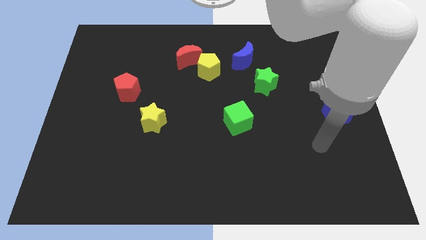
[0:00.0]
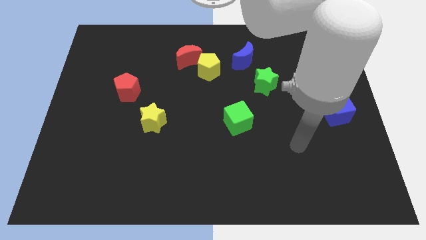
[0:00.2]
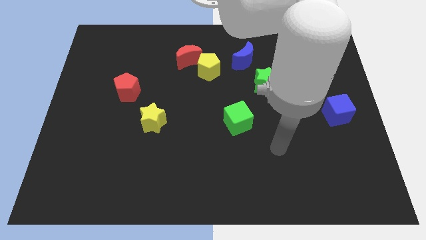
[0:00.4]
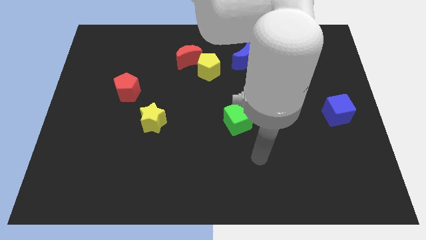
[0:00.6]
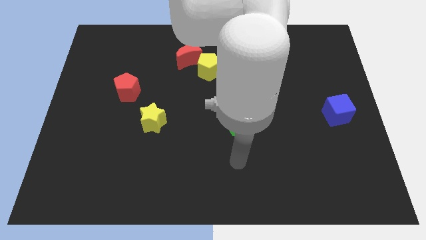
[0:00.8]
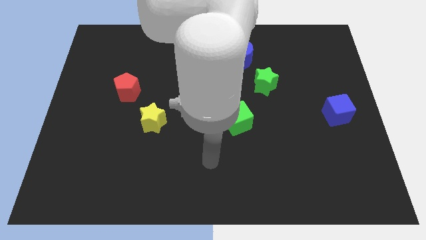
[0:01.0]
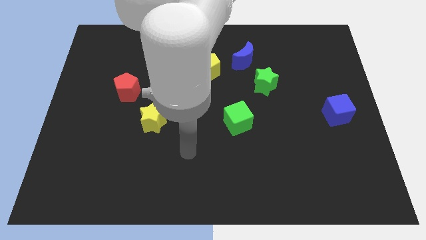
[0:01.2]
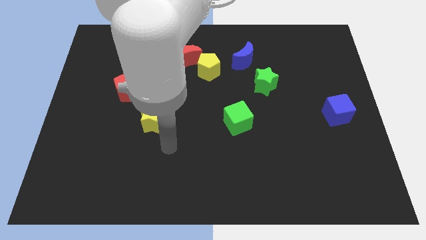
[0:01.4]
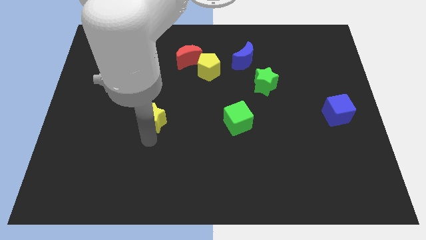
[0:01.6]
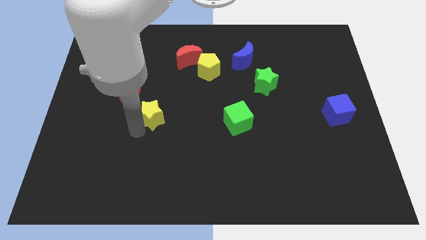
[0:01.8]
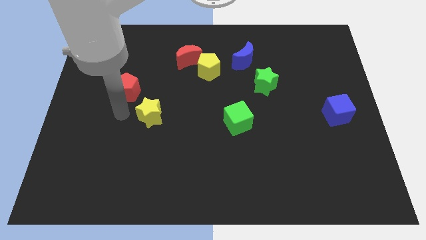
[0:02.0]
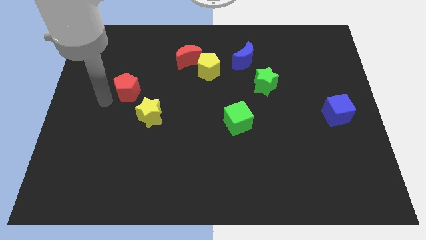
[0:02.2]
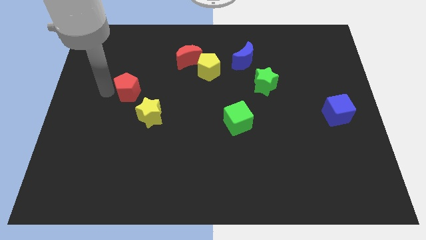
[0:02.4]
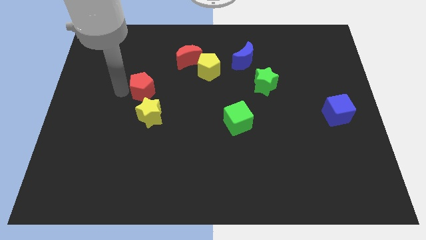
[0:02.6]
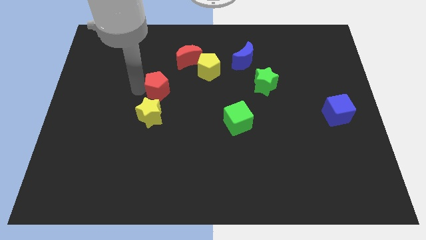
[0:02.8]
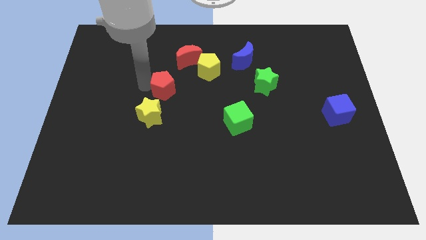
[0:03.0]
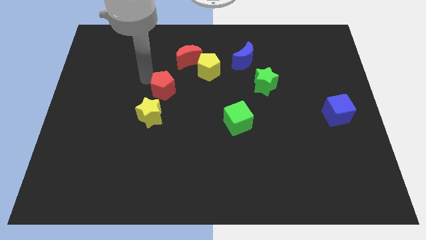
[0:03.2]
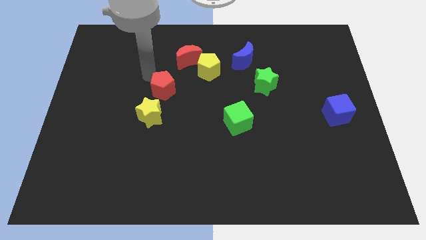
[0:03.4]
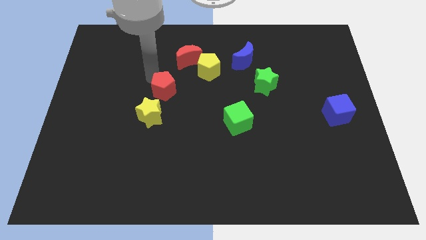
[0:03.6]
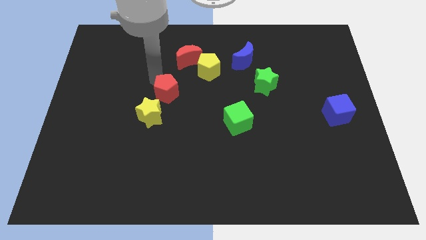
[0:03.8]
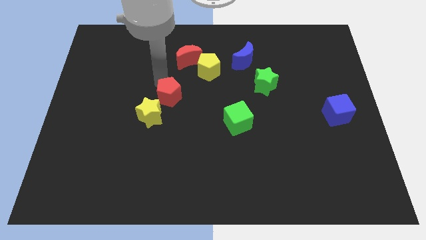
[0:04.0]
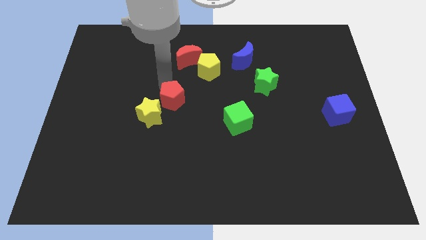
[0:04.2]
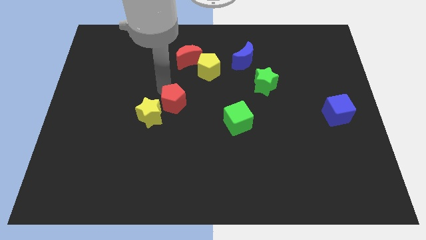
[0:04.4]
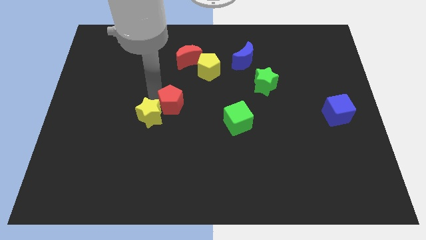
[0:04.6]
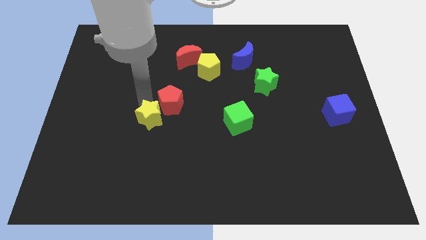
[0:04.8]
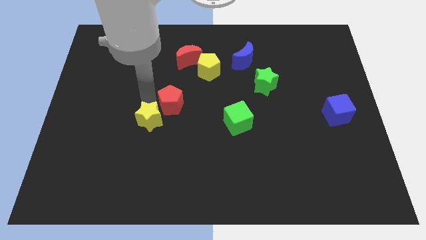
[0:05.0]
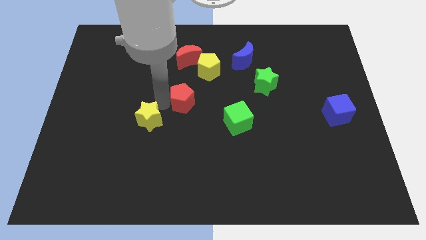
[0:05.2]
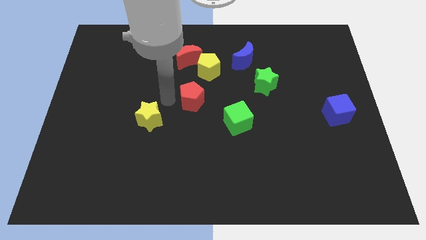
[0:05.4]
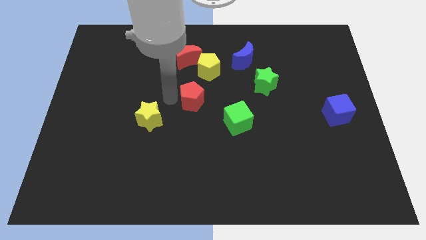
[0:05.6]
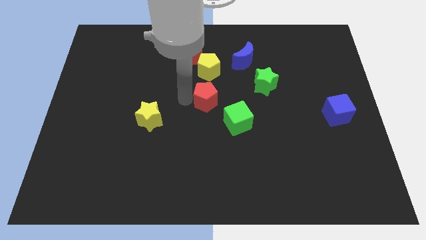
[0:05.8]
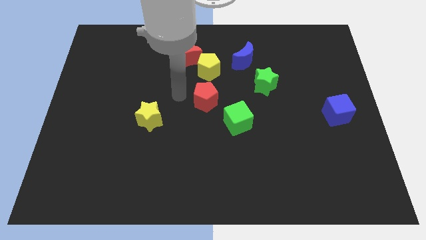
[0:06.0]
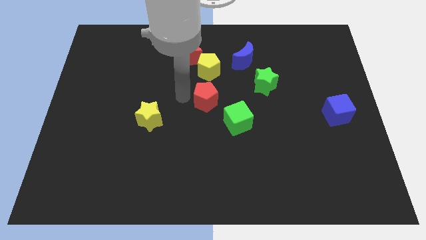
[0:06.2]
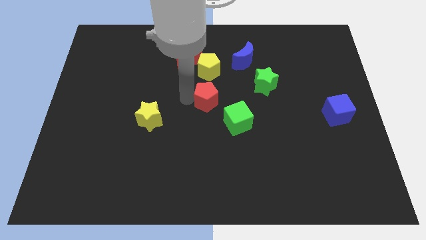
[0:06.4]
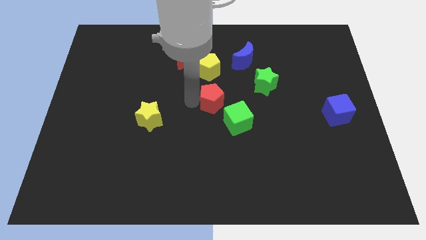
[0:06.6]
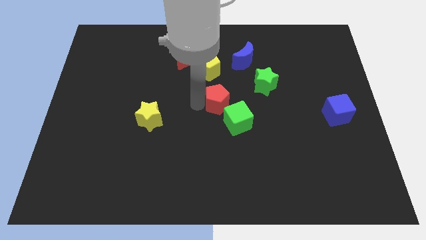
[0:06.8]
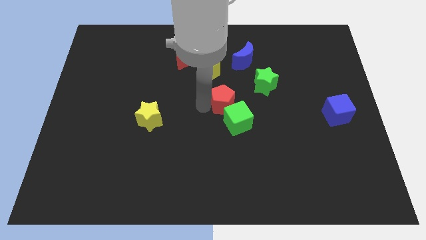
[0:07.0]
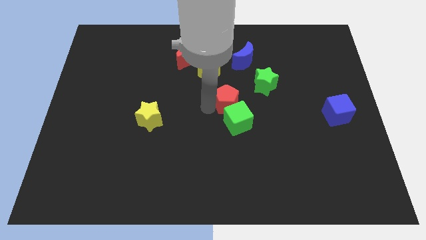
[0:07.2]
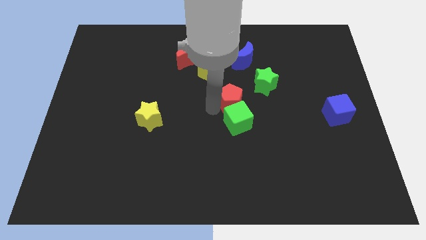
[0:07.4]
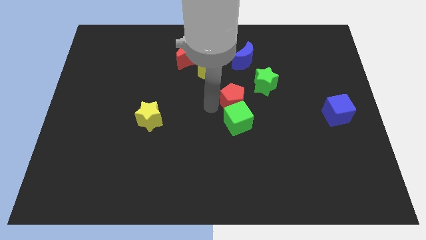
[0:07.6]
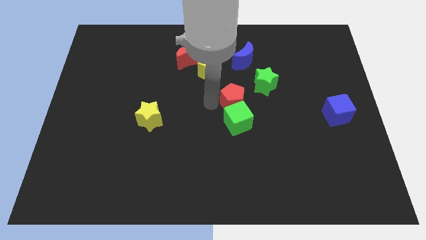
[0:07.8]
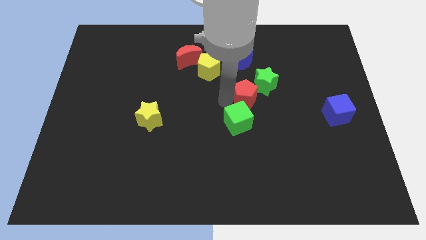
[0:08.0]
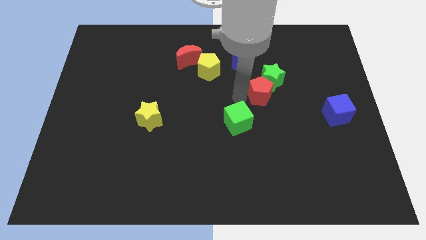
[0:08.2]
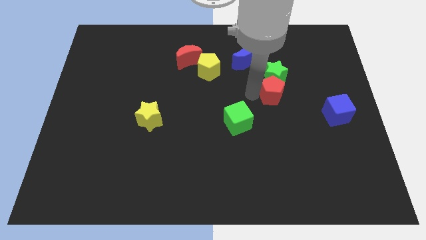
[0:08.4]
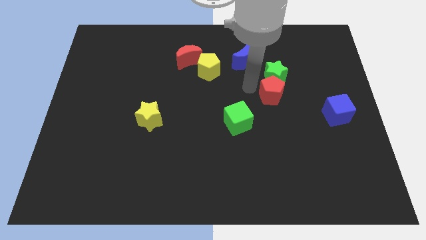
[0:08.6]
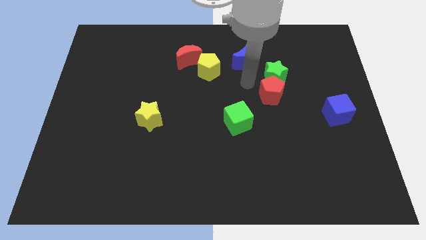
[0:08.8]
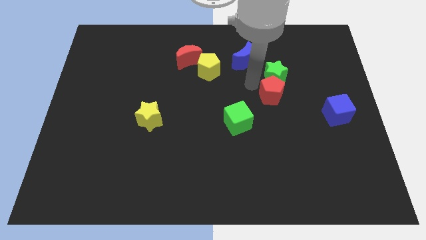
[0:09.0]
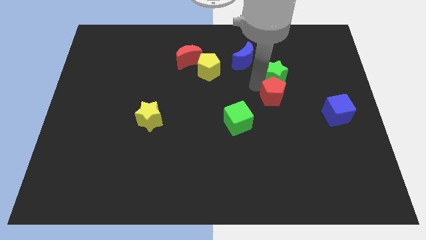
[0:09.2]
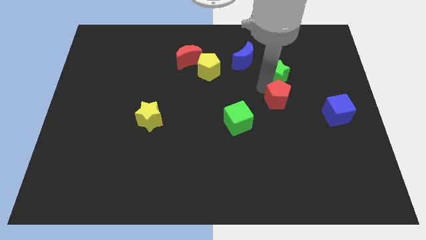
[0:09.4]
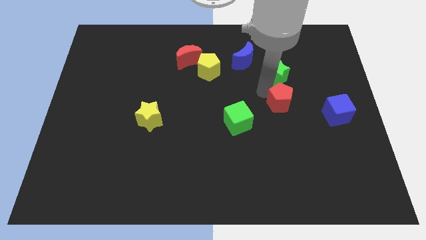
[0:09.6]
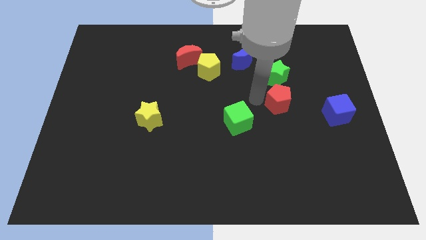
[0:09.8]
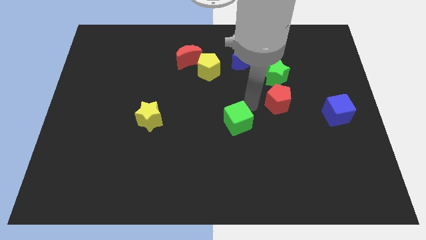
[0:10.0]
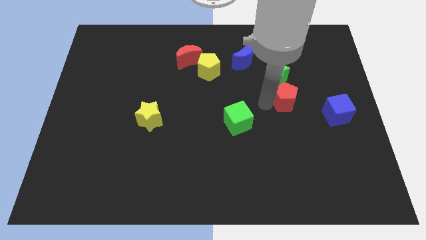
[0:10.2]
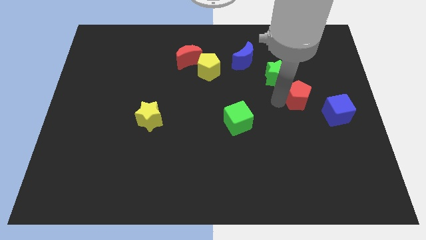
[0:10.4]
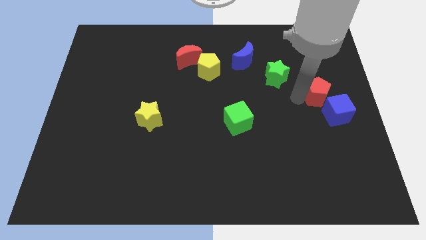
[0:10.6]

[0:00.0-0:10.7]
slide the red pentagon to the right side

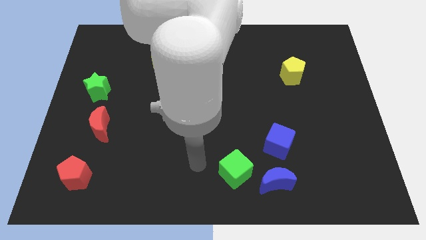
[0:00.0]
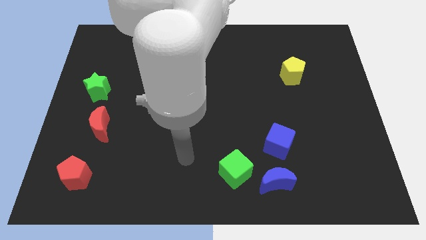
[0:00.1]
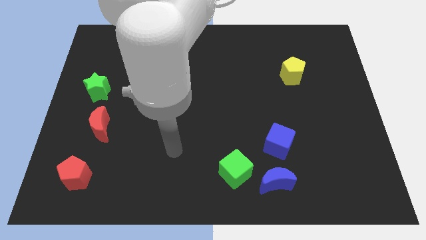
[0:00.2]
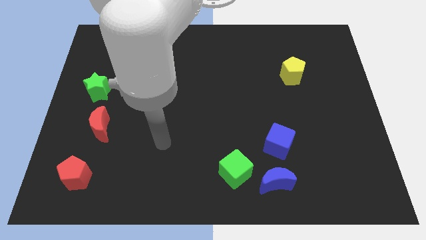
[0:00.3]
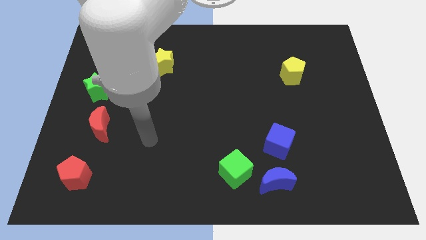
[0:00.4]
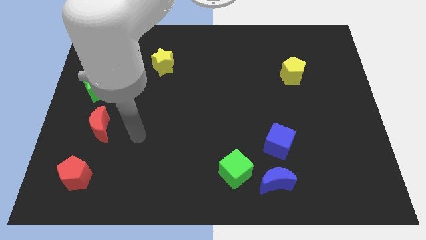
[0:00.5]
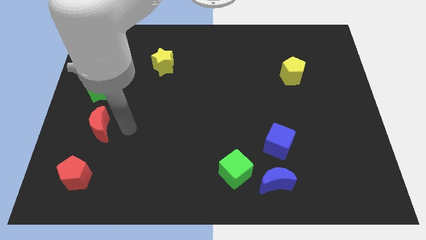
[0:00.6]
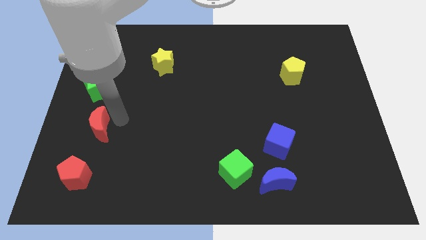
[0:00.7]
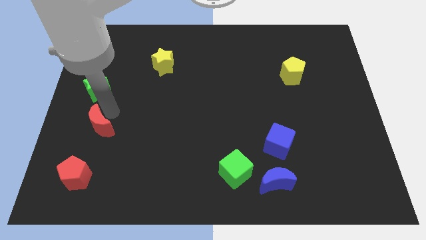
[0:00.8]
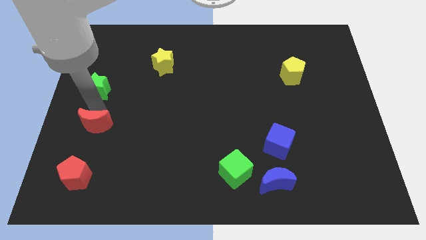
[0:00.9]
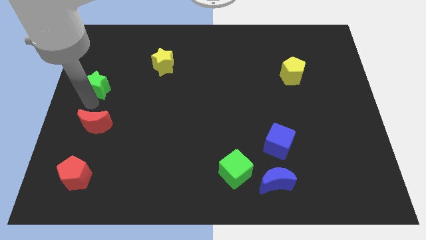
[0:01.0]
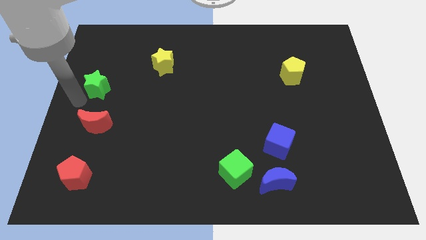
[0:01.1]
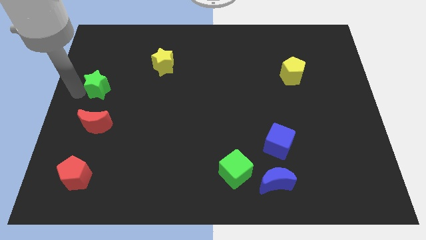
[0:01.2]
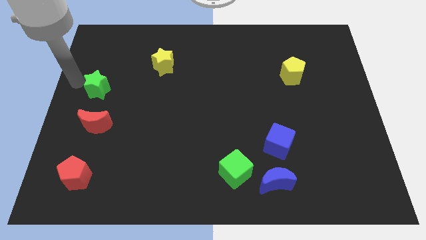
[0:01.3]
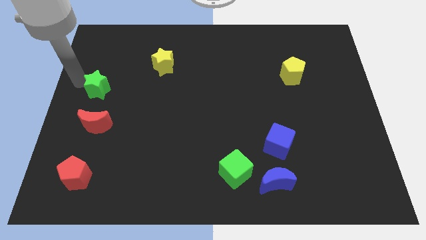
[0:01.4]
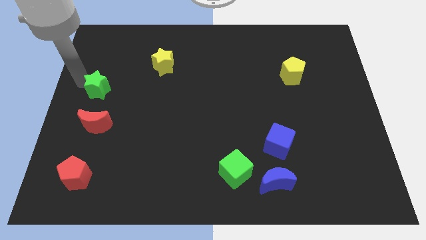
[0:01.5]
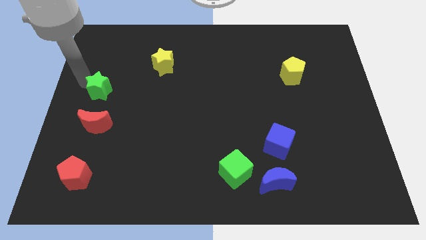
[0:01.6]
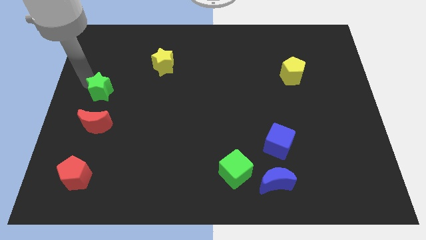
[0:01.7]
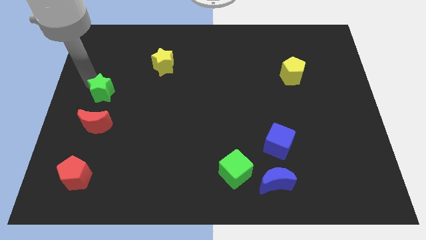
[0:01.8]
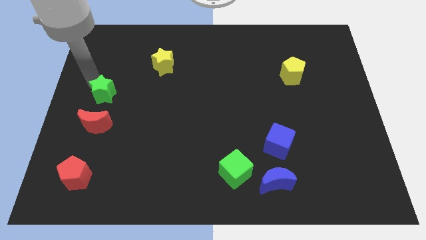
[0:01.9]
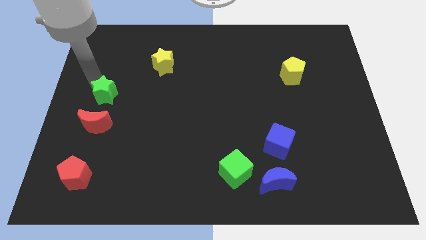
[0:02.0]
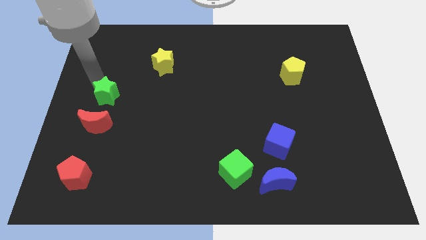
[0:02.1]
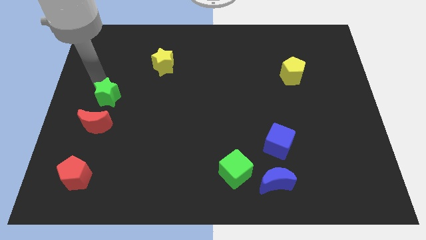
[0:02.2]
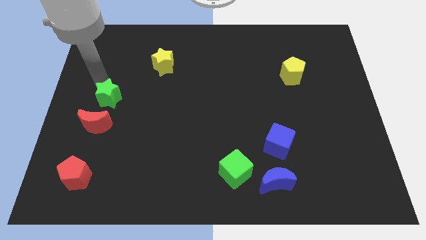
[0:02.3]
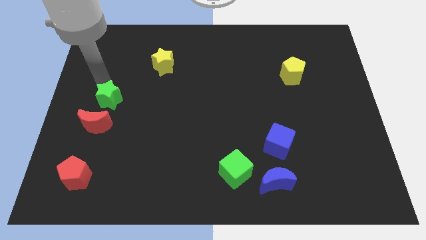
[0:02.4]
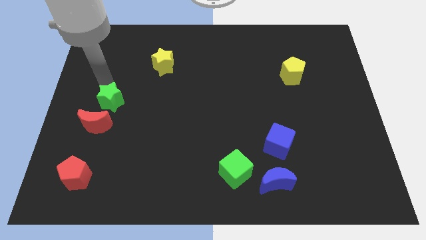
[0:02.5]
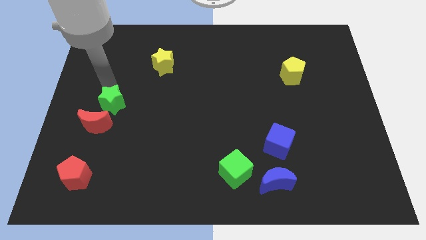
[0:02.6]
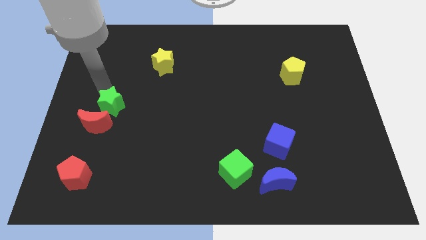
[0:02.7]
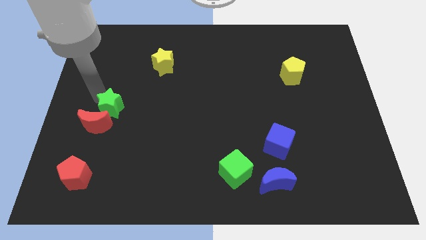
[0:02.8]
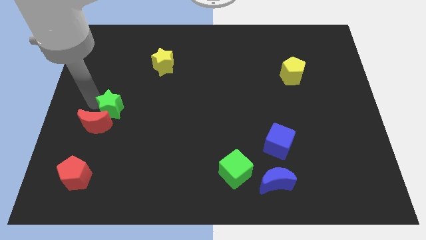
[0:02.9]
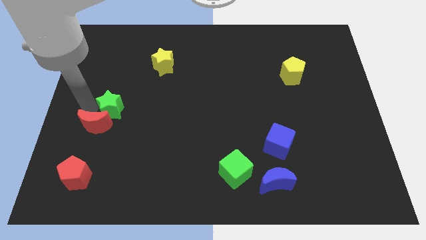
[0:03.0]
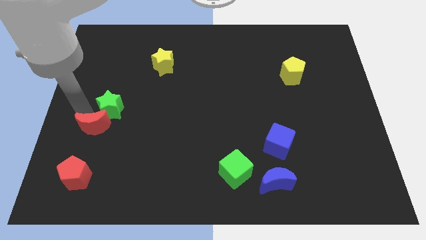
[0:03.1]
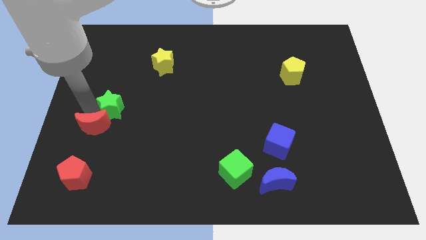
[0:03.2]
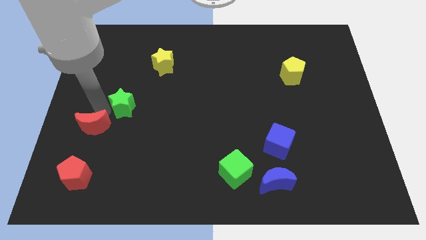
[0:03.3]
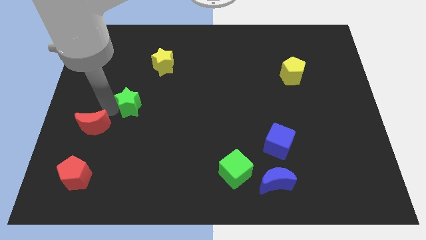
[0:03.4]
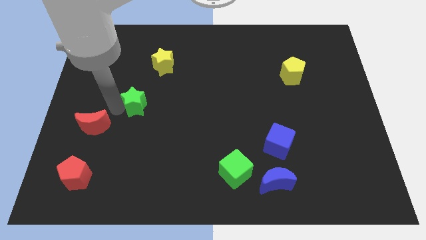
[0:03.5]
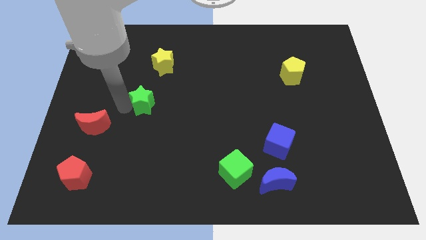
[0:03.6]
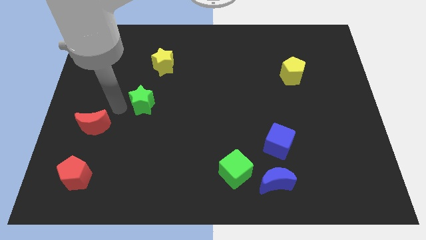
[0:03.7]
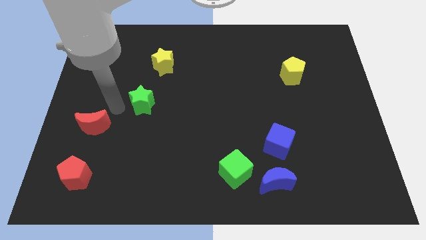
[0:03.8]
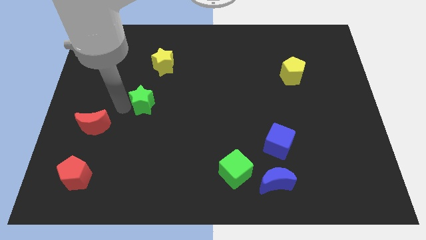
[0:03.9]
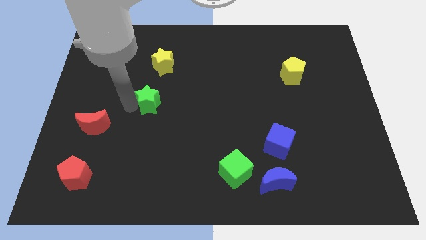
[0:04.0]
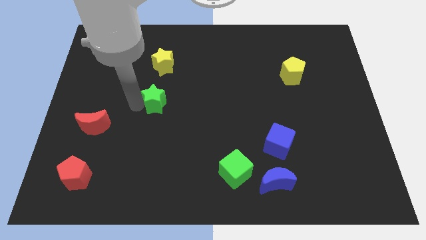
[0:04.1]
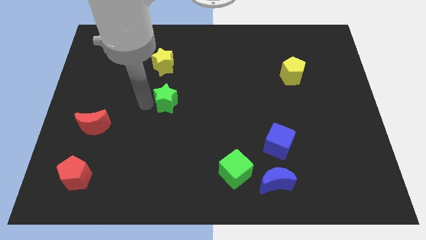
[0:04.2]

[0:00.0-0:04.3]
slide the green star to the middle of the board
